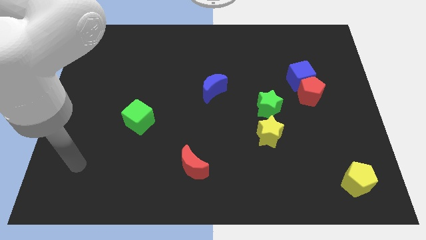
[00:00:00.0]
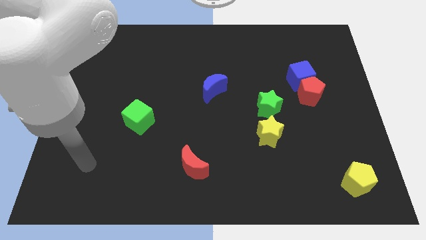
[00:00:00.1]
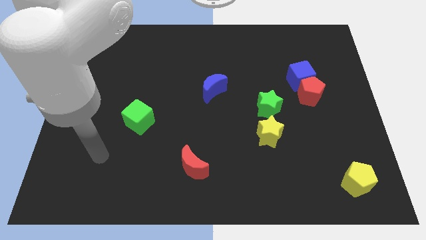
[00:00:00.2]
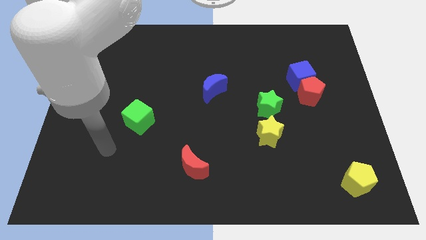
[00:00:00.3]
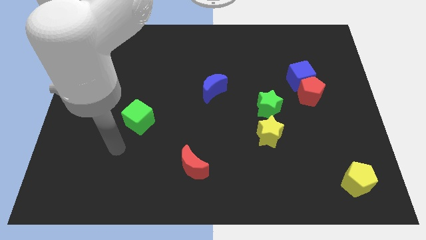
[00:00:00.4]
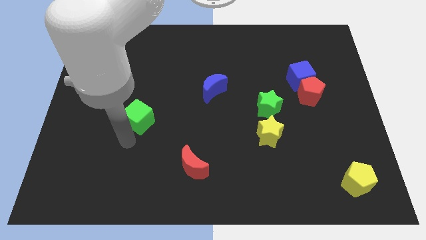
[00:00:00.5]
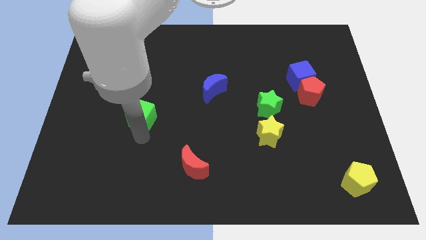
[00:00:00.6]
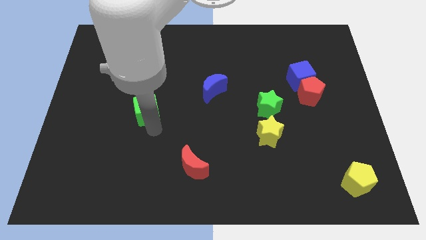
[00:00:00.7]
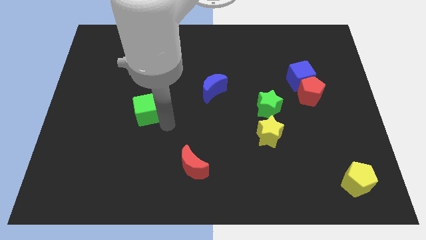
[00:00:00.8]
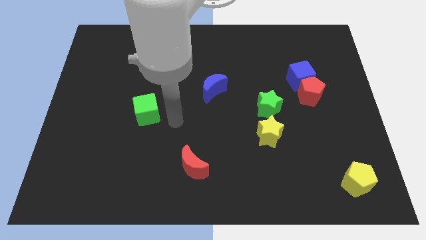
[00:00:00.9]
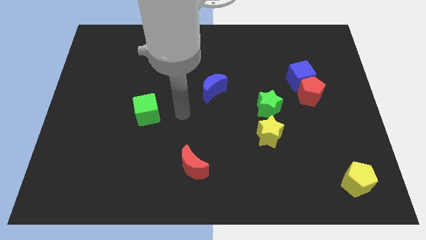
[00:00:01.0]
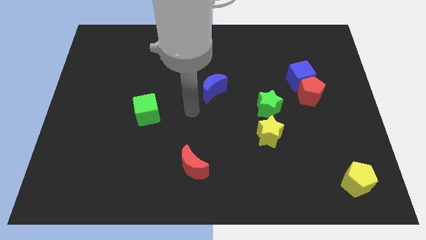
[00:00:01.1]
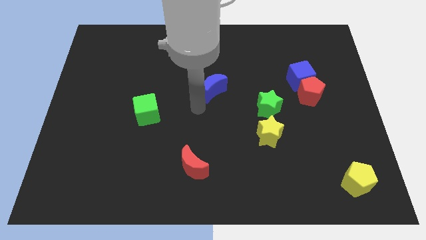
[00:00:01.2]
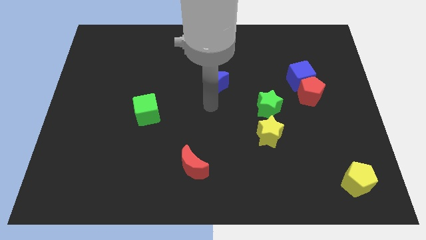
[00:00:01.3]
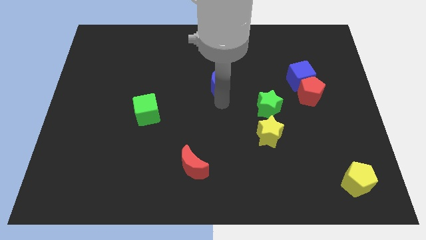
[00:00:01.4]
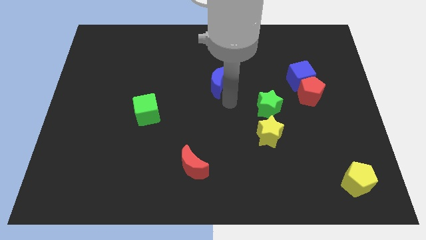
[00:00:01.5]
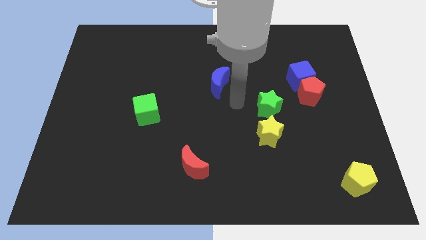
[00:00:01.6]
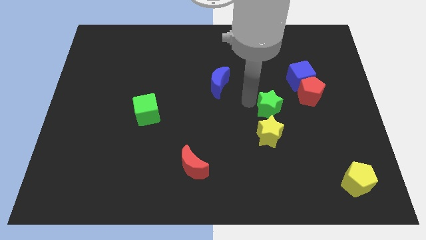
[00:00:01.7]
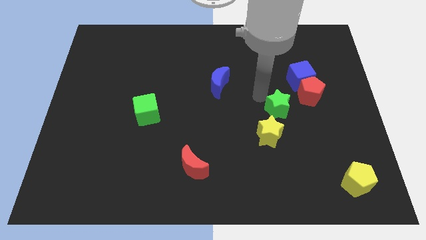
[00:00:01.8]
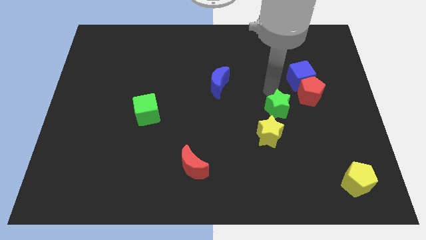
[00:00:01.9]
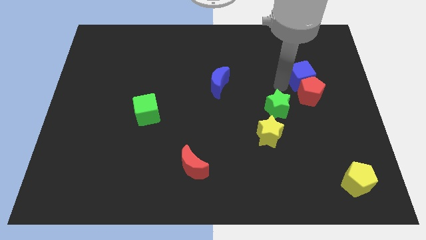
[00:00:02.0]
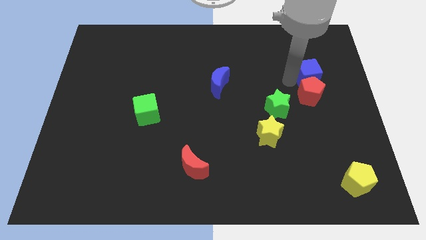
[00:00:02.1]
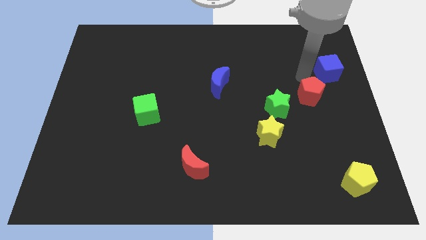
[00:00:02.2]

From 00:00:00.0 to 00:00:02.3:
separate the red pentagon from the blue cube

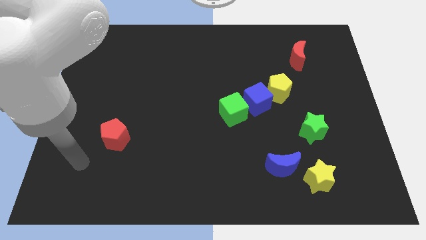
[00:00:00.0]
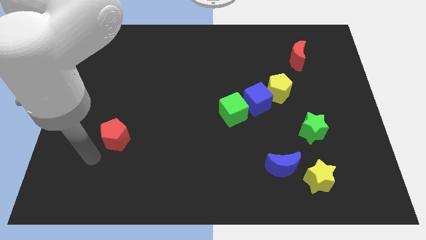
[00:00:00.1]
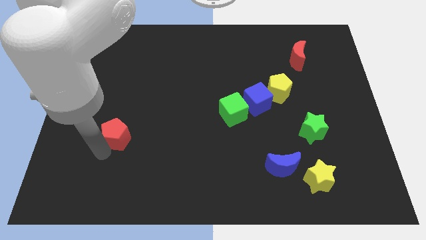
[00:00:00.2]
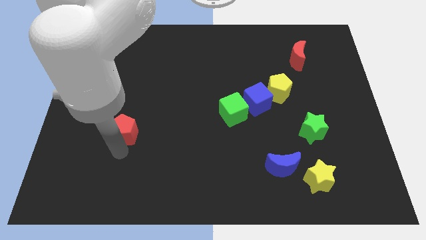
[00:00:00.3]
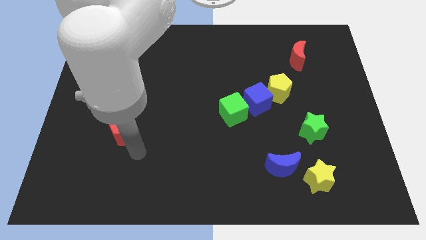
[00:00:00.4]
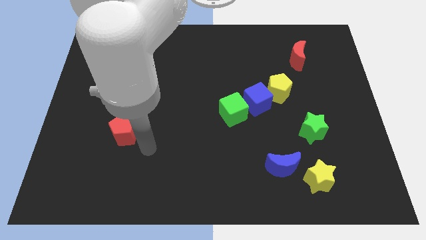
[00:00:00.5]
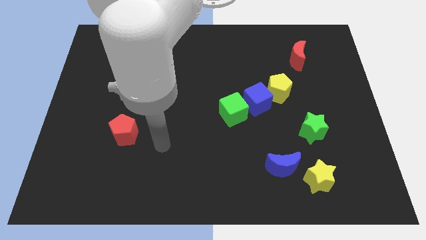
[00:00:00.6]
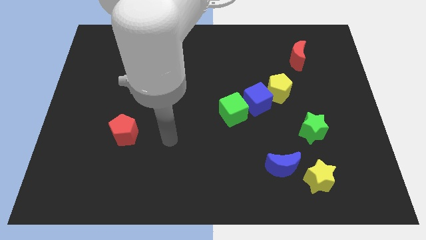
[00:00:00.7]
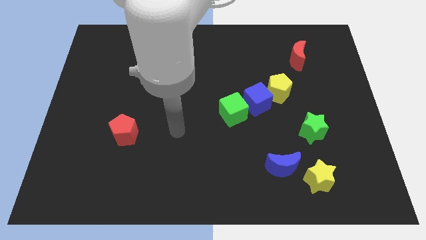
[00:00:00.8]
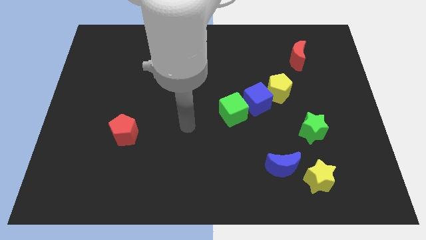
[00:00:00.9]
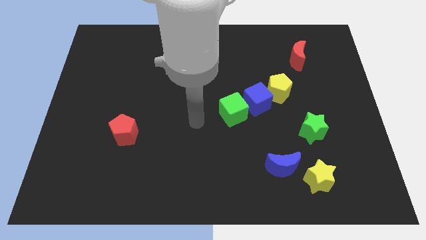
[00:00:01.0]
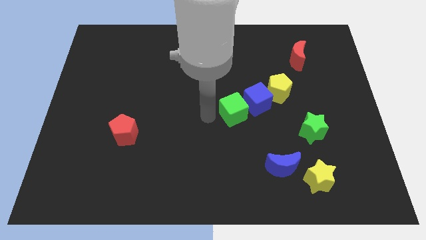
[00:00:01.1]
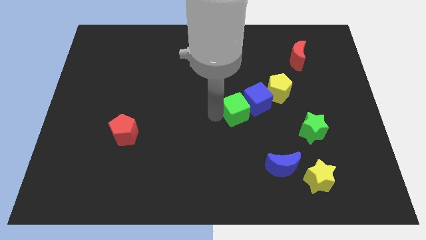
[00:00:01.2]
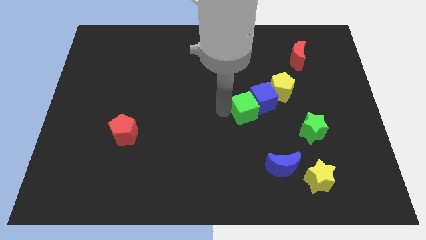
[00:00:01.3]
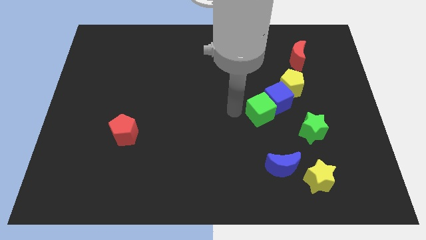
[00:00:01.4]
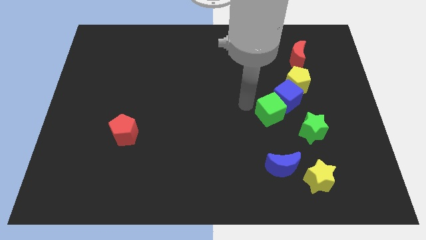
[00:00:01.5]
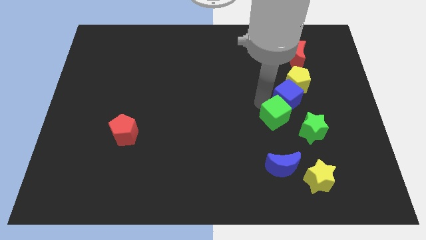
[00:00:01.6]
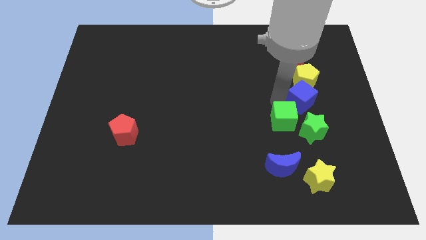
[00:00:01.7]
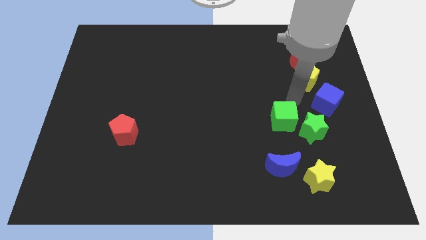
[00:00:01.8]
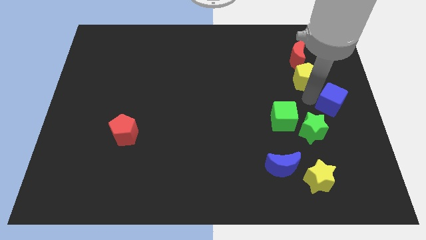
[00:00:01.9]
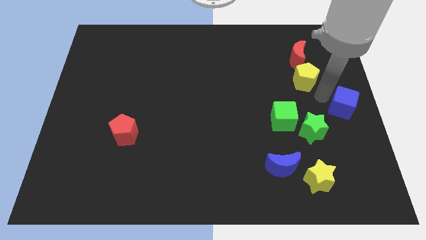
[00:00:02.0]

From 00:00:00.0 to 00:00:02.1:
move the yellow pentagon away from the blue cube

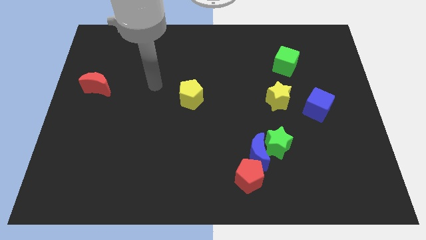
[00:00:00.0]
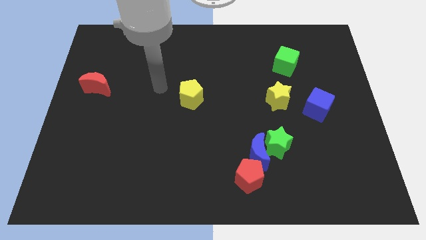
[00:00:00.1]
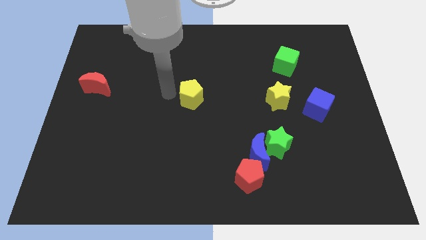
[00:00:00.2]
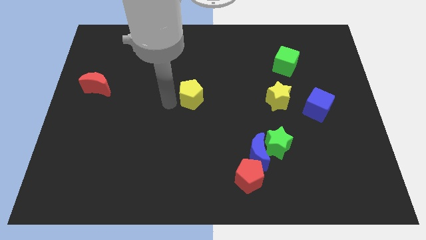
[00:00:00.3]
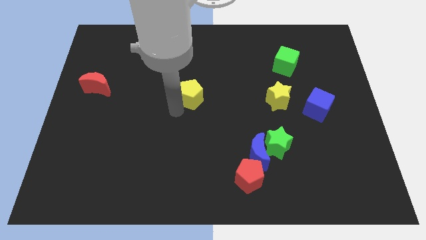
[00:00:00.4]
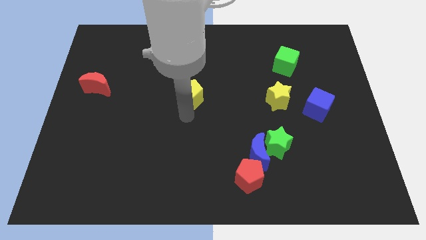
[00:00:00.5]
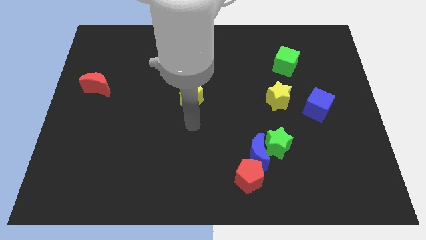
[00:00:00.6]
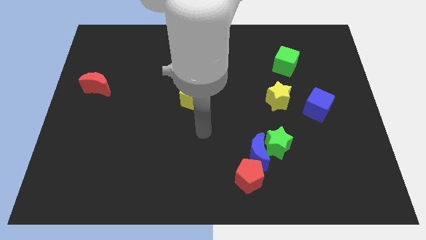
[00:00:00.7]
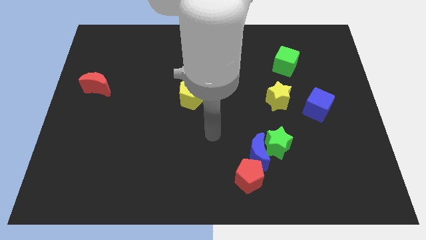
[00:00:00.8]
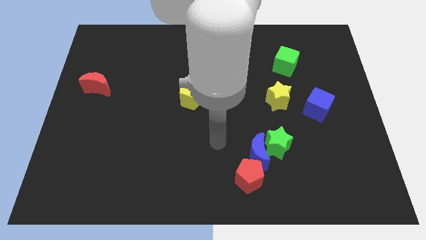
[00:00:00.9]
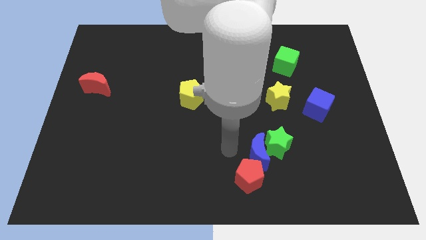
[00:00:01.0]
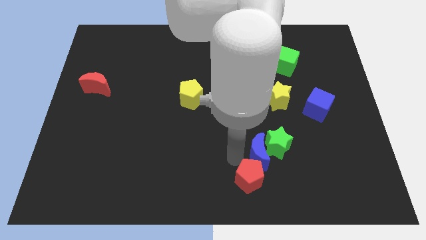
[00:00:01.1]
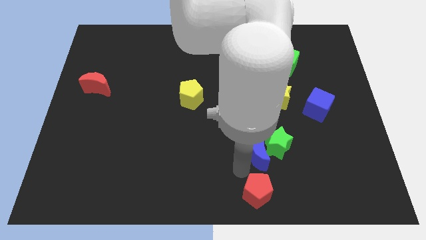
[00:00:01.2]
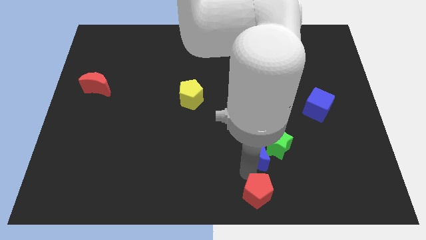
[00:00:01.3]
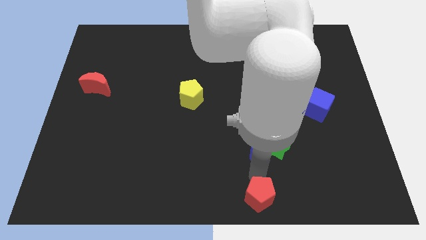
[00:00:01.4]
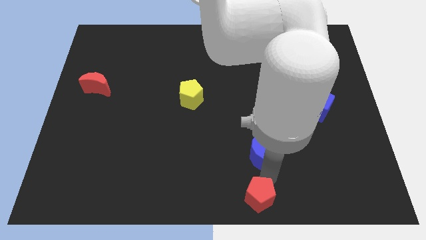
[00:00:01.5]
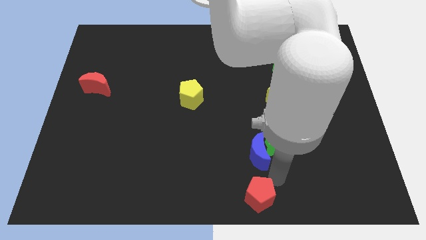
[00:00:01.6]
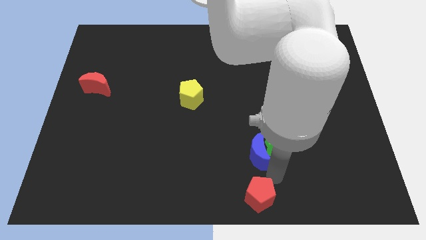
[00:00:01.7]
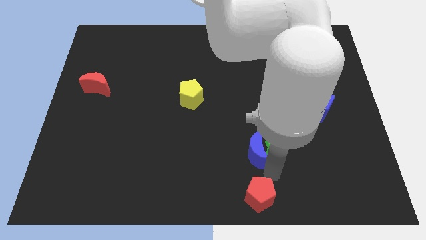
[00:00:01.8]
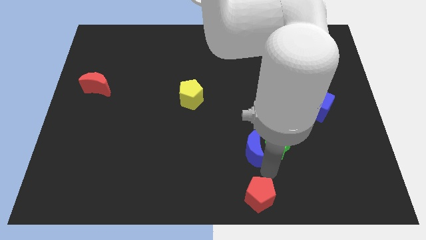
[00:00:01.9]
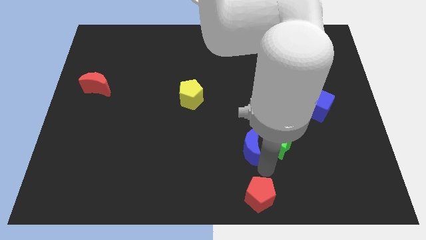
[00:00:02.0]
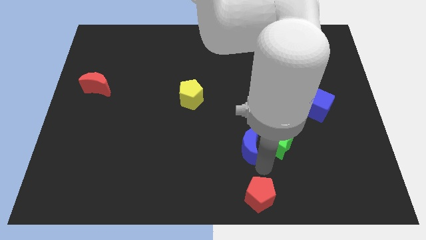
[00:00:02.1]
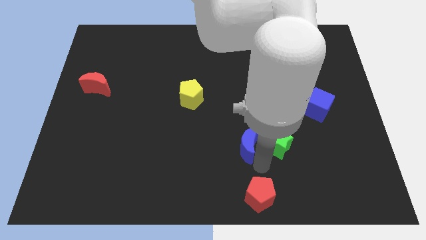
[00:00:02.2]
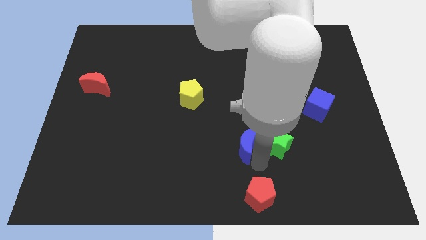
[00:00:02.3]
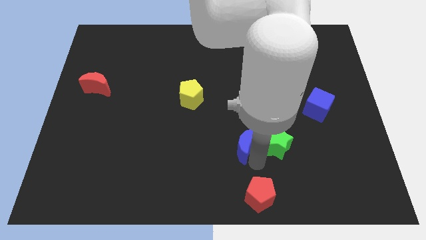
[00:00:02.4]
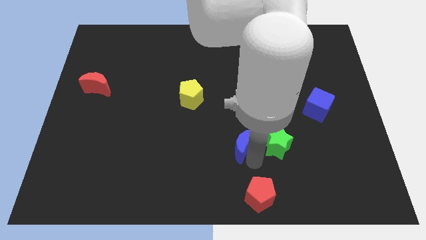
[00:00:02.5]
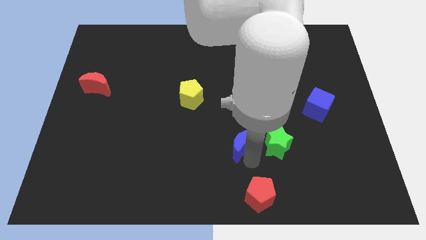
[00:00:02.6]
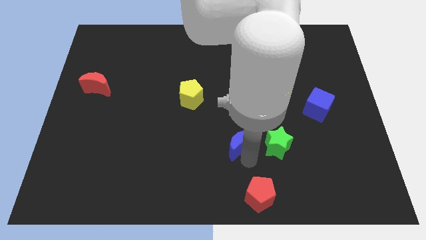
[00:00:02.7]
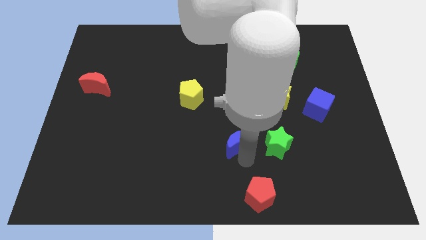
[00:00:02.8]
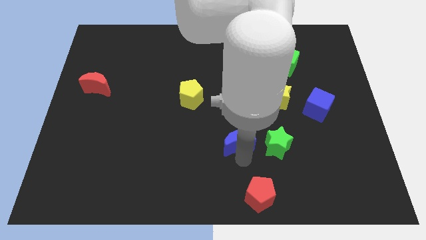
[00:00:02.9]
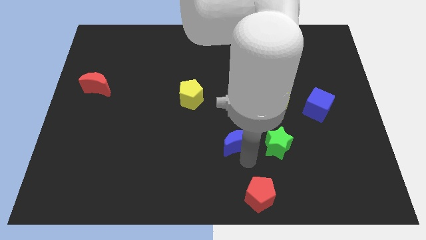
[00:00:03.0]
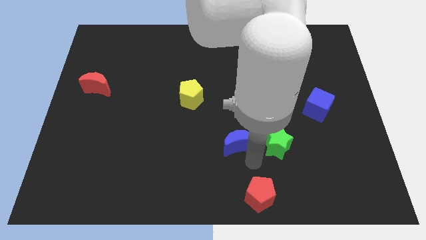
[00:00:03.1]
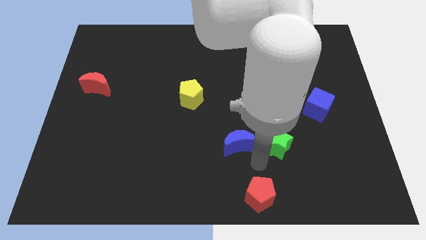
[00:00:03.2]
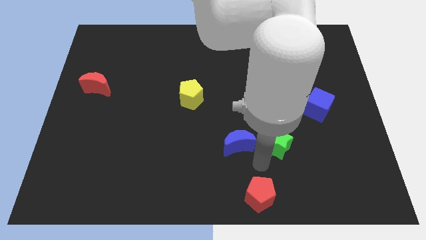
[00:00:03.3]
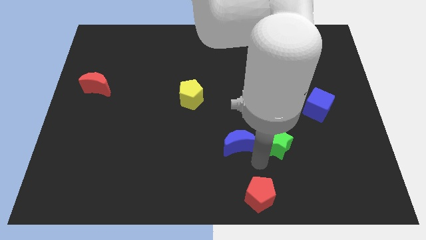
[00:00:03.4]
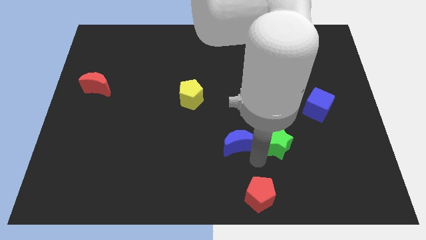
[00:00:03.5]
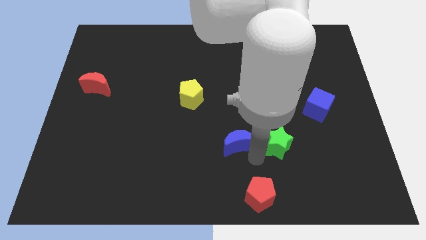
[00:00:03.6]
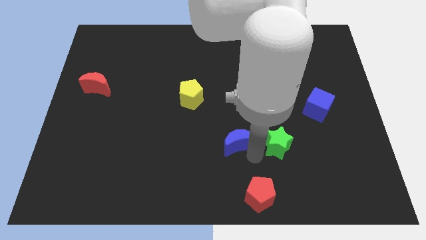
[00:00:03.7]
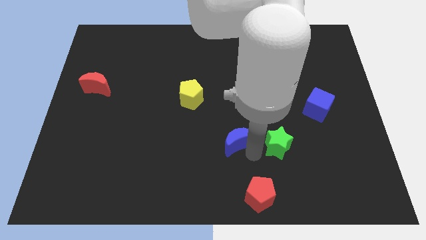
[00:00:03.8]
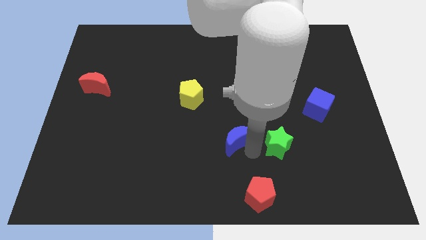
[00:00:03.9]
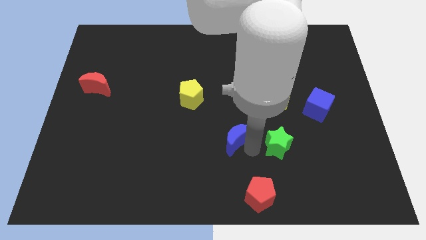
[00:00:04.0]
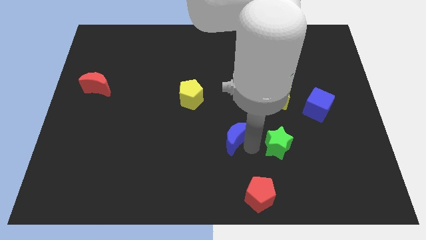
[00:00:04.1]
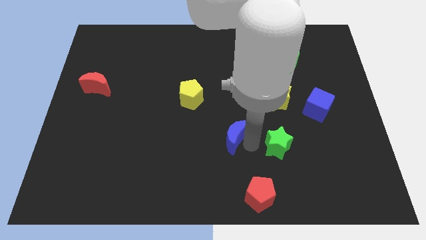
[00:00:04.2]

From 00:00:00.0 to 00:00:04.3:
pull the blue moon apart from the green star and red pentagon

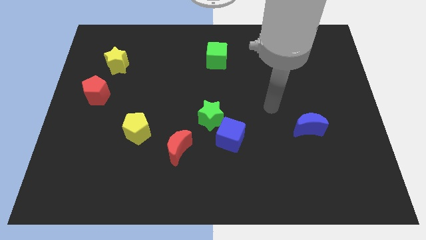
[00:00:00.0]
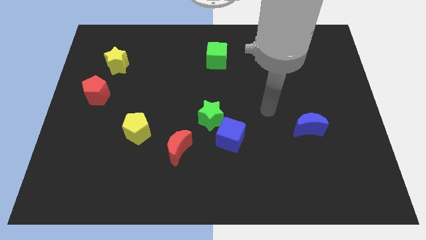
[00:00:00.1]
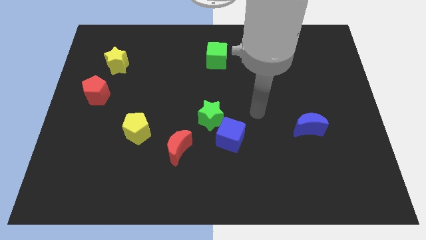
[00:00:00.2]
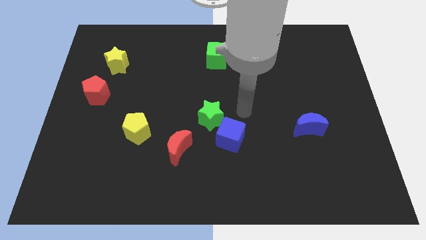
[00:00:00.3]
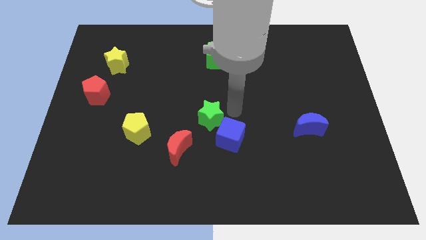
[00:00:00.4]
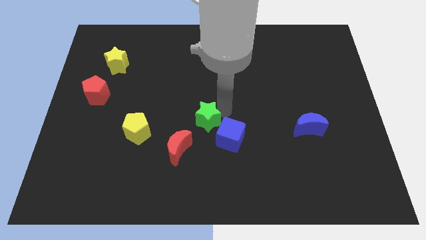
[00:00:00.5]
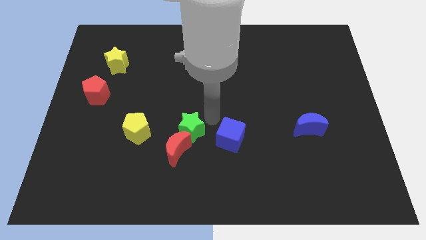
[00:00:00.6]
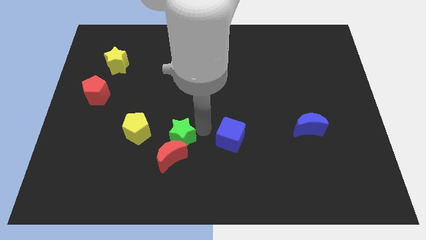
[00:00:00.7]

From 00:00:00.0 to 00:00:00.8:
separate the blue cube from the green star
